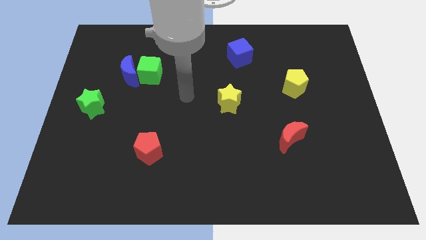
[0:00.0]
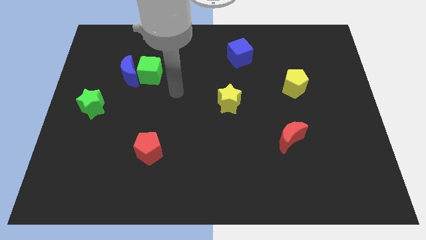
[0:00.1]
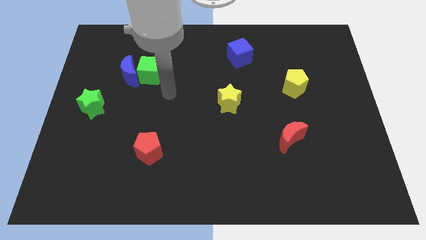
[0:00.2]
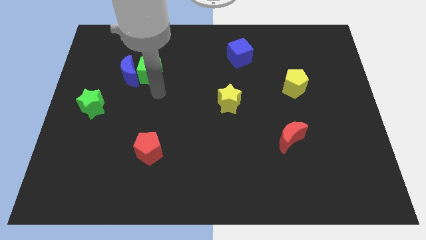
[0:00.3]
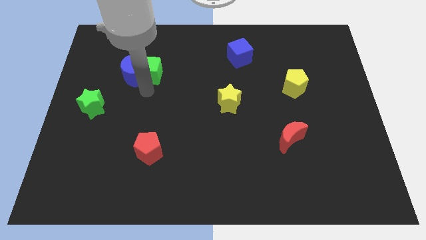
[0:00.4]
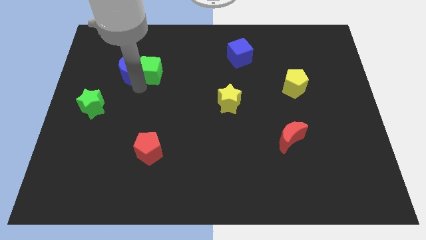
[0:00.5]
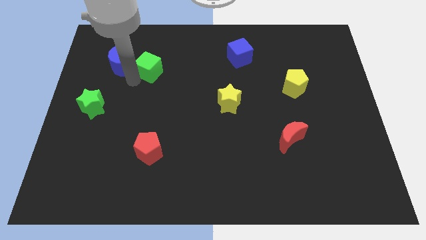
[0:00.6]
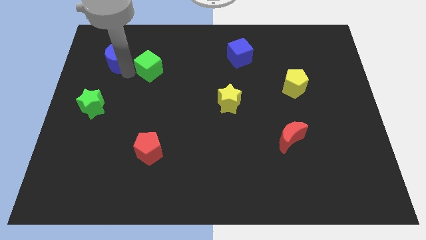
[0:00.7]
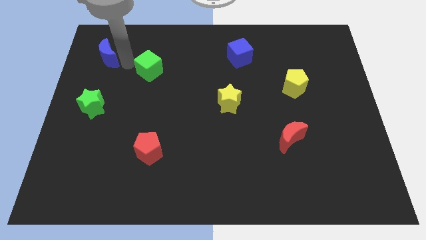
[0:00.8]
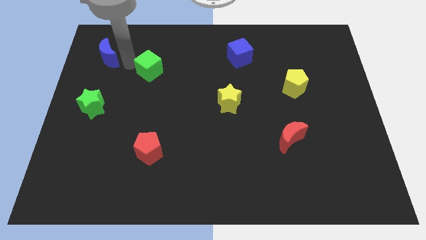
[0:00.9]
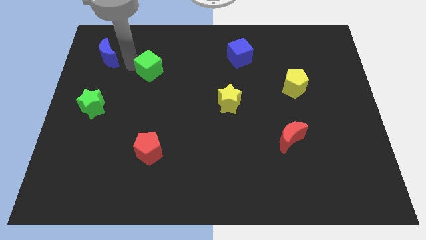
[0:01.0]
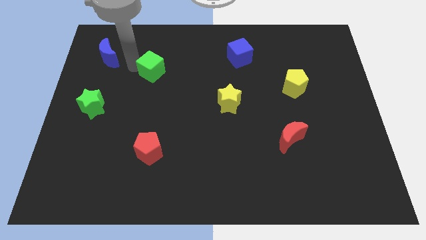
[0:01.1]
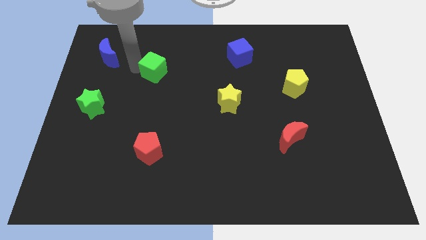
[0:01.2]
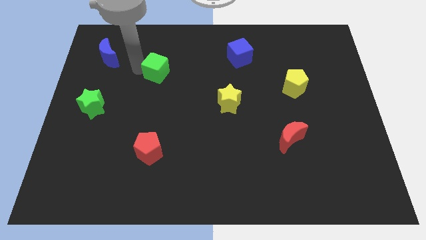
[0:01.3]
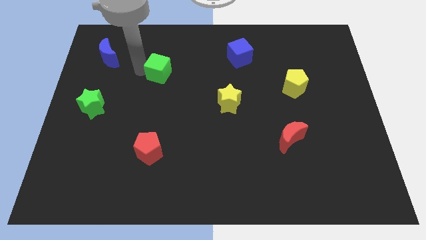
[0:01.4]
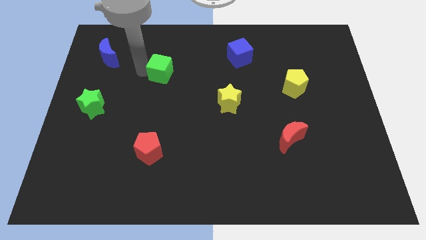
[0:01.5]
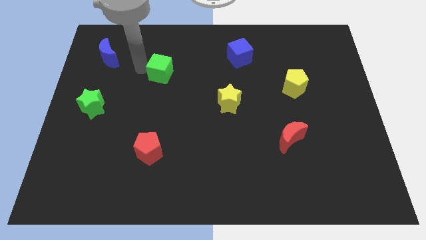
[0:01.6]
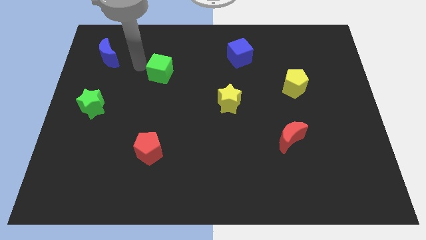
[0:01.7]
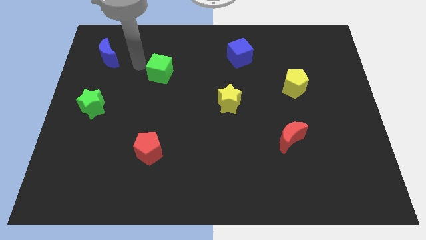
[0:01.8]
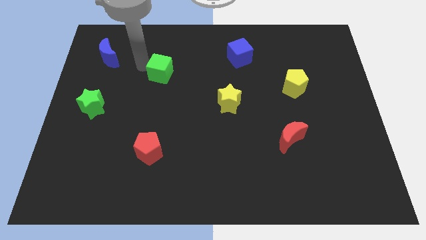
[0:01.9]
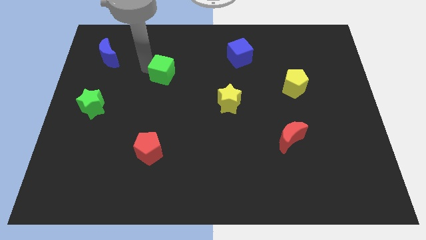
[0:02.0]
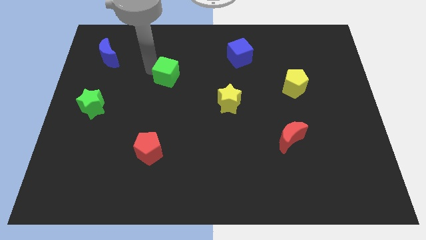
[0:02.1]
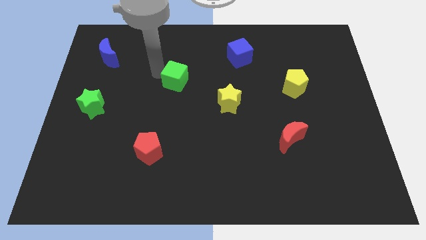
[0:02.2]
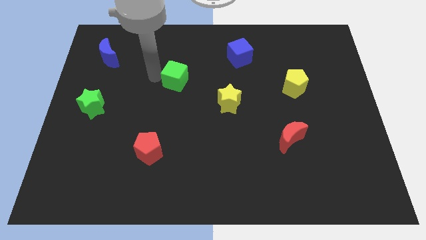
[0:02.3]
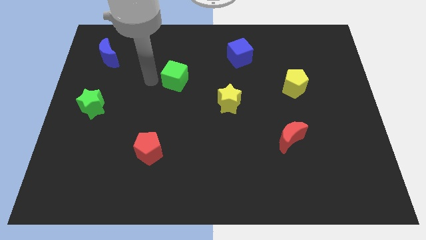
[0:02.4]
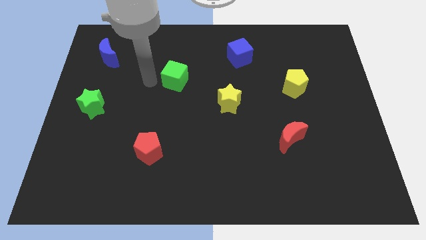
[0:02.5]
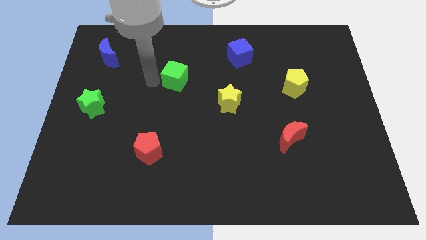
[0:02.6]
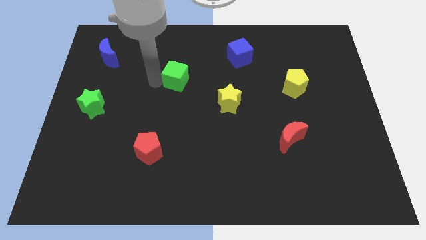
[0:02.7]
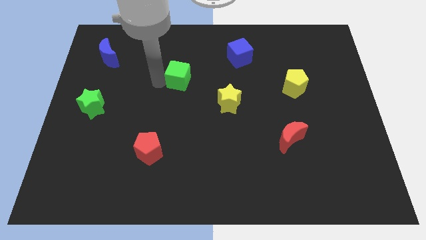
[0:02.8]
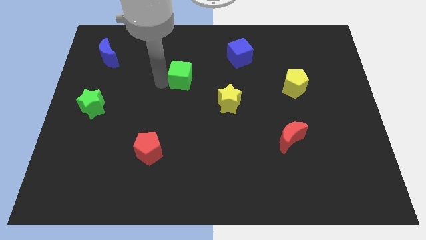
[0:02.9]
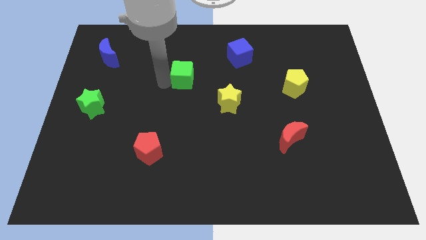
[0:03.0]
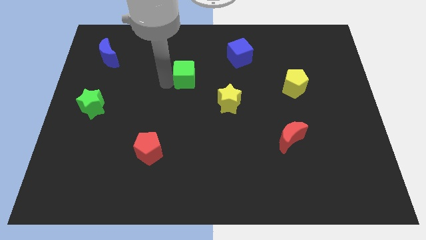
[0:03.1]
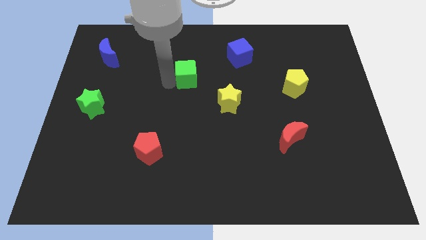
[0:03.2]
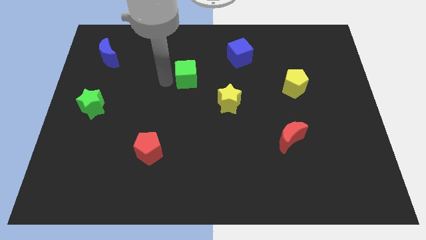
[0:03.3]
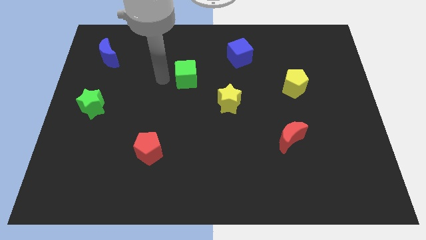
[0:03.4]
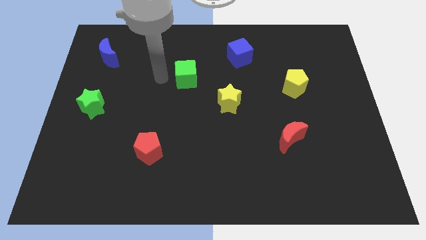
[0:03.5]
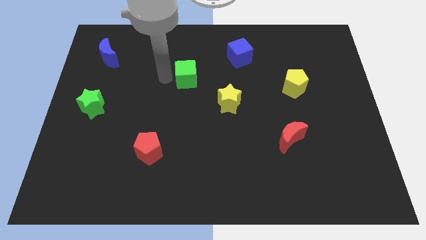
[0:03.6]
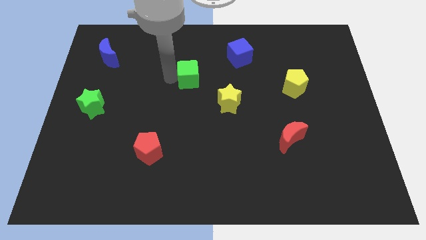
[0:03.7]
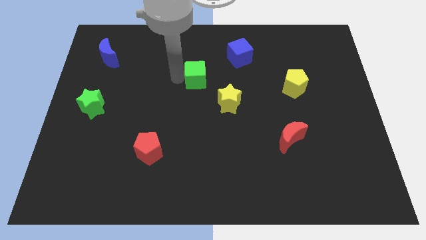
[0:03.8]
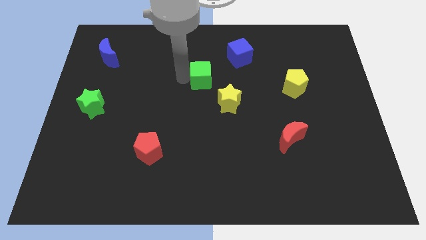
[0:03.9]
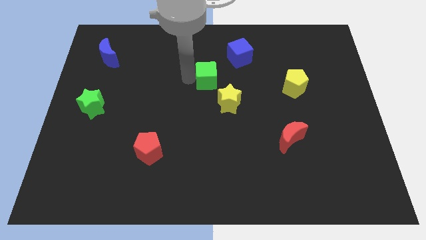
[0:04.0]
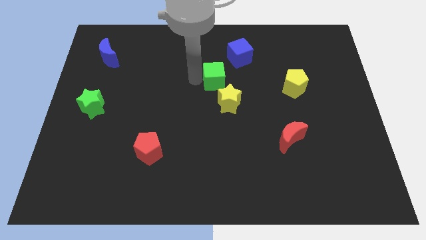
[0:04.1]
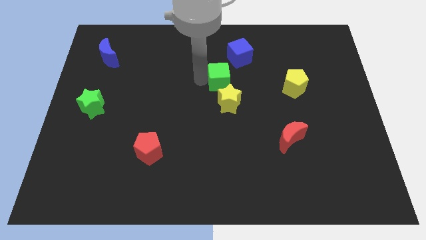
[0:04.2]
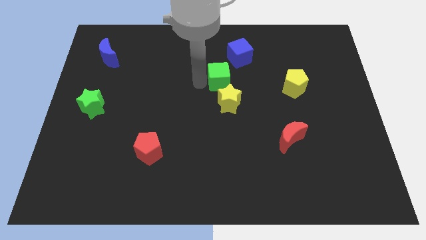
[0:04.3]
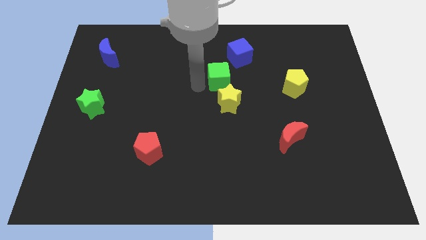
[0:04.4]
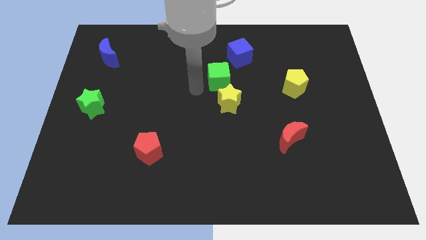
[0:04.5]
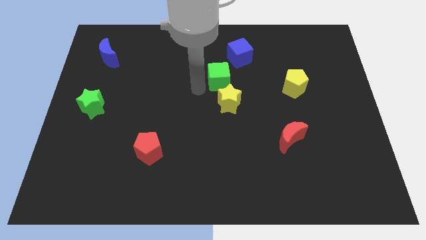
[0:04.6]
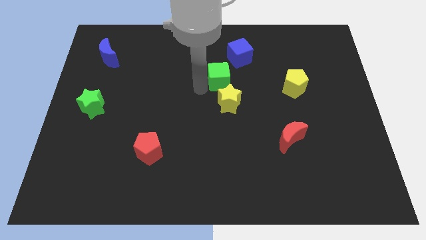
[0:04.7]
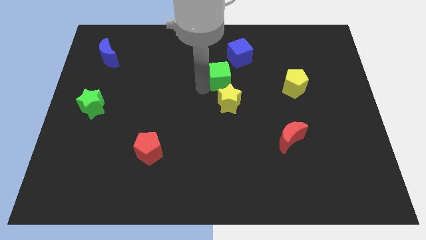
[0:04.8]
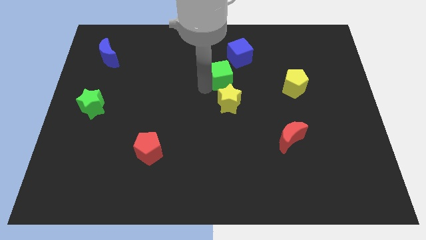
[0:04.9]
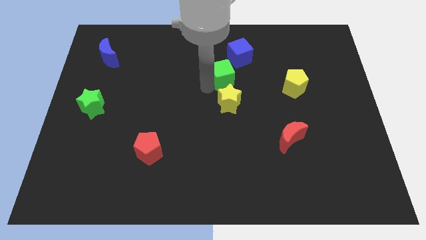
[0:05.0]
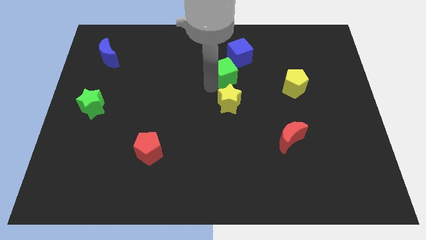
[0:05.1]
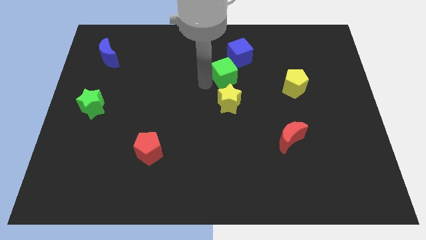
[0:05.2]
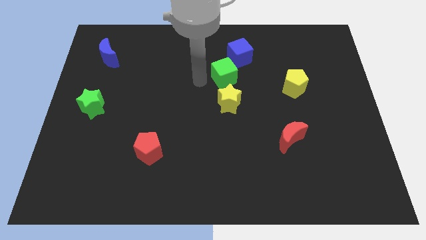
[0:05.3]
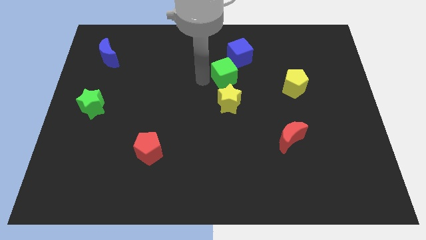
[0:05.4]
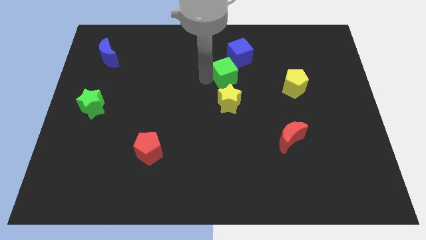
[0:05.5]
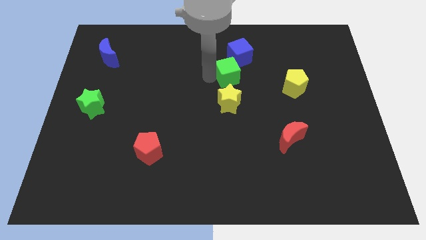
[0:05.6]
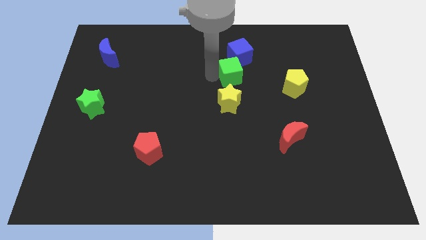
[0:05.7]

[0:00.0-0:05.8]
slide the green cube to the right

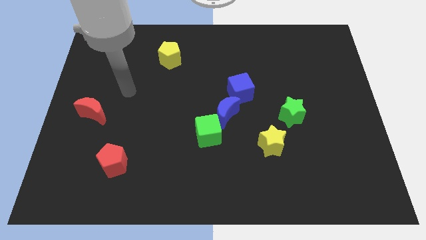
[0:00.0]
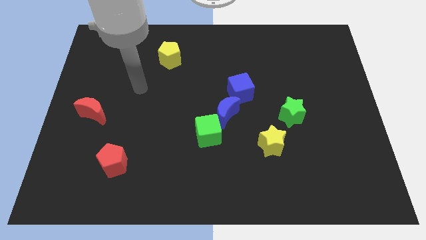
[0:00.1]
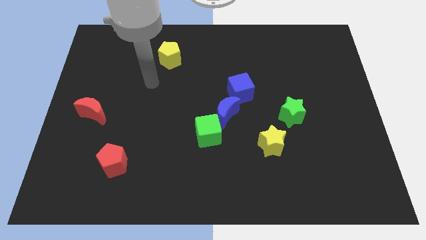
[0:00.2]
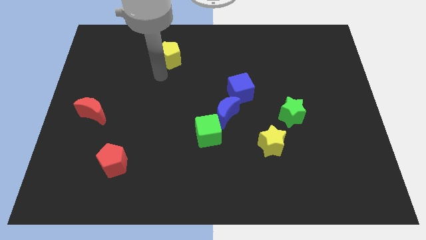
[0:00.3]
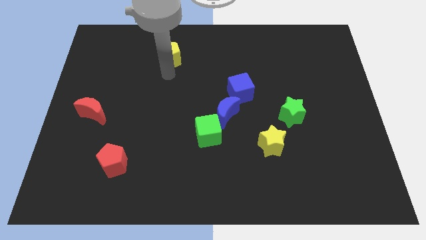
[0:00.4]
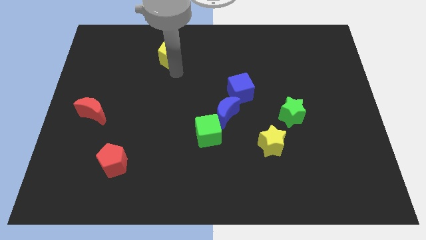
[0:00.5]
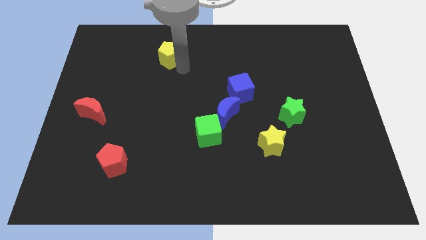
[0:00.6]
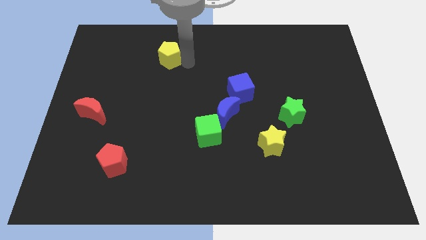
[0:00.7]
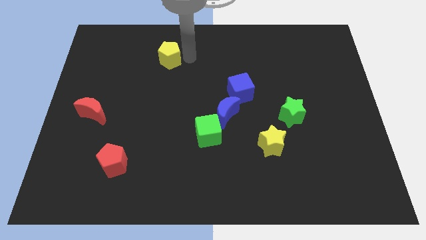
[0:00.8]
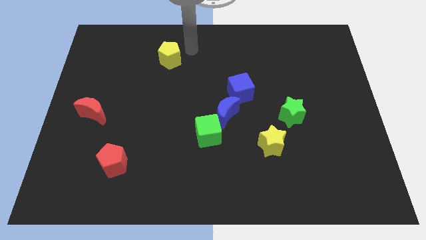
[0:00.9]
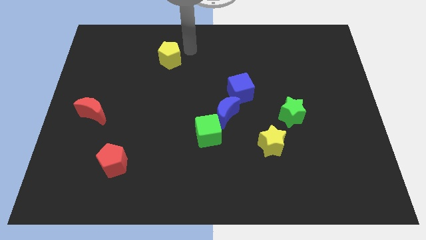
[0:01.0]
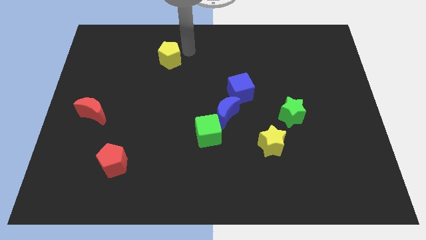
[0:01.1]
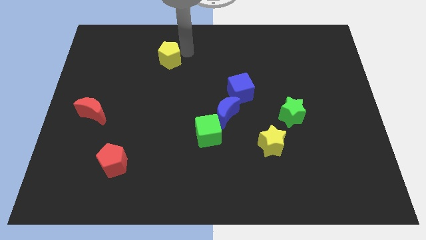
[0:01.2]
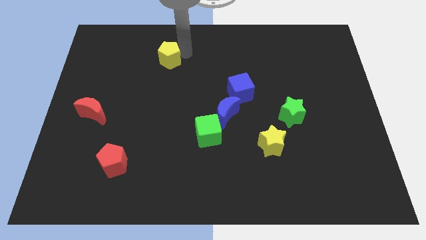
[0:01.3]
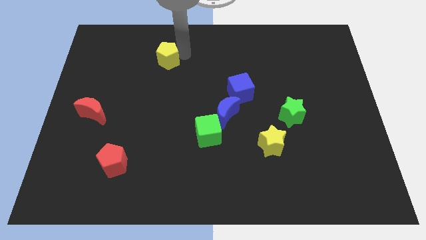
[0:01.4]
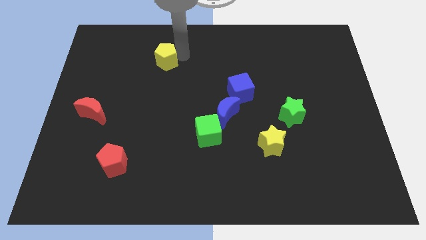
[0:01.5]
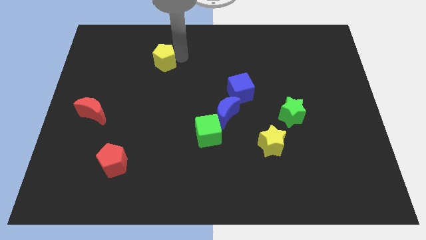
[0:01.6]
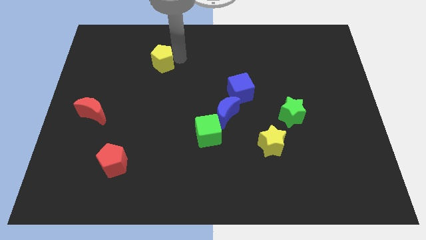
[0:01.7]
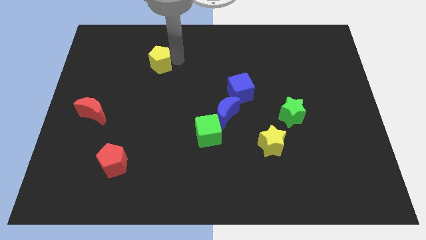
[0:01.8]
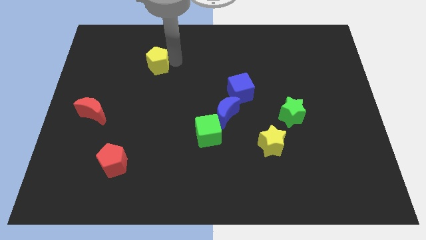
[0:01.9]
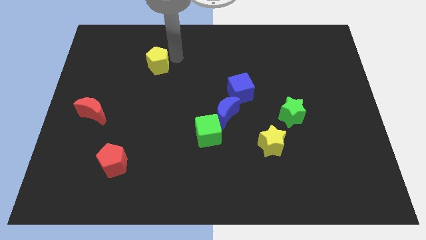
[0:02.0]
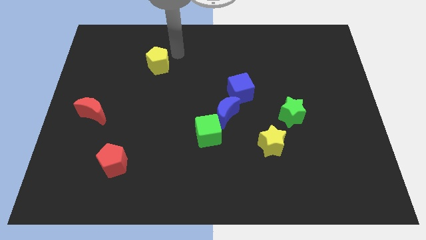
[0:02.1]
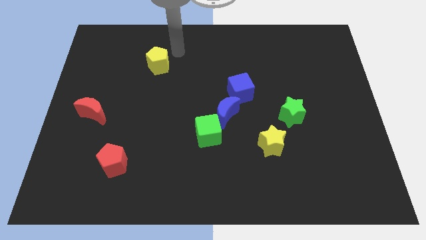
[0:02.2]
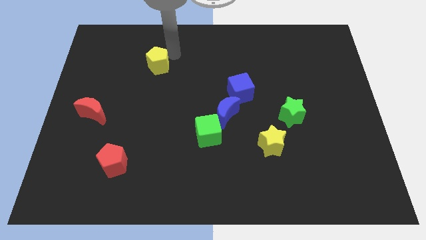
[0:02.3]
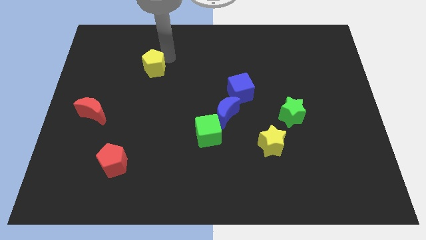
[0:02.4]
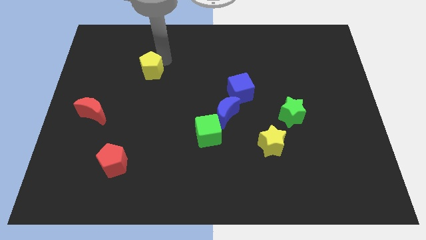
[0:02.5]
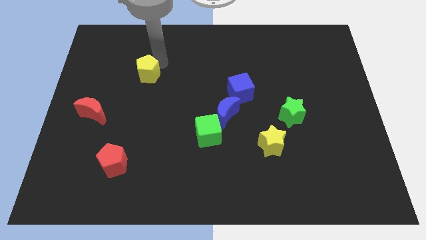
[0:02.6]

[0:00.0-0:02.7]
slightly push the yellow pentagon diagonally down and to the left
